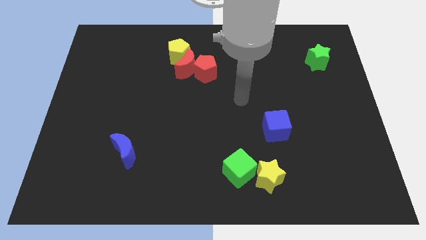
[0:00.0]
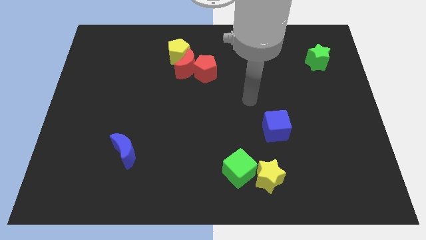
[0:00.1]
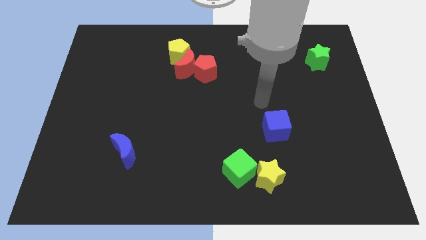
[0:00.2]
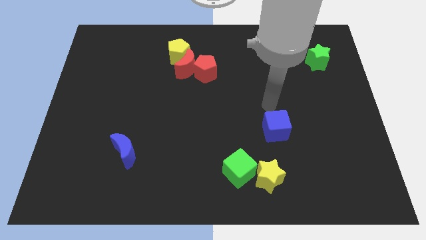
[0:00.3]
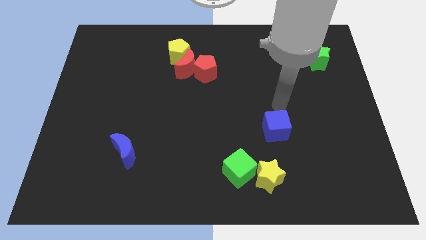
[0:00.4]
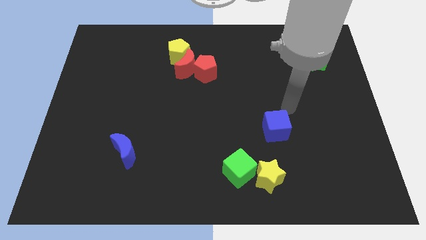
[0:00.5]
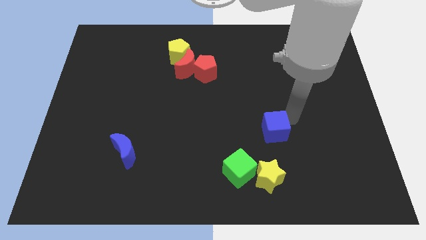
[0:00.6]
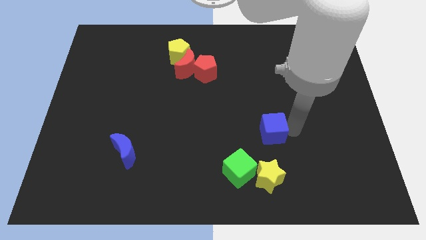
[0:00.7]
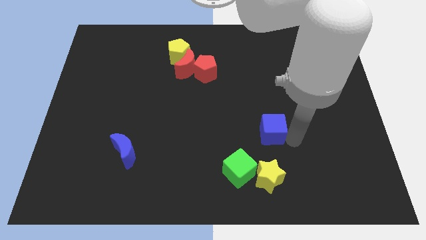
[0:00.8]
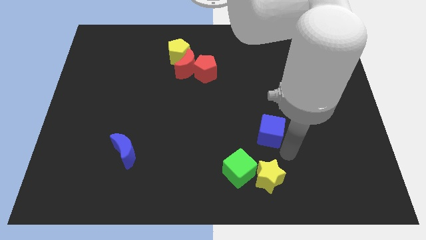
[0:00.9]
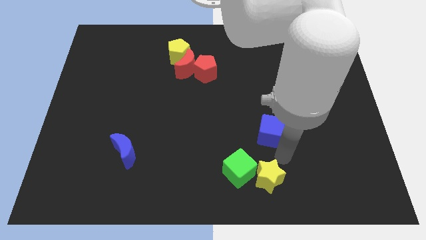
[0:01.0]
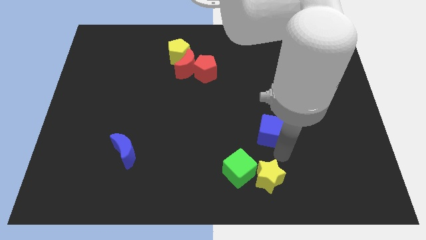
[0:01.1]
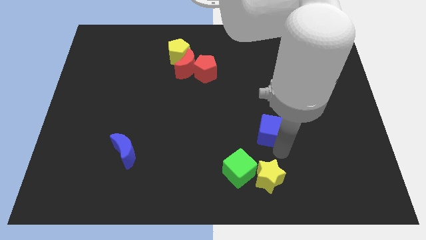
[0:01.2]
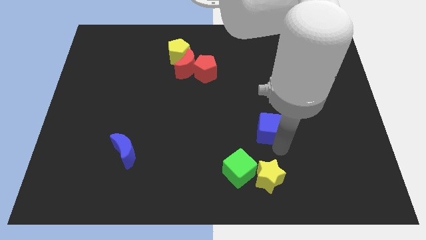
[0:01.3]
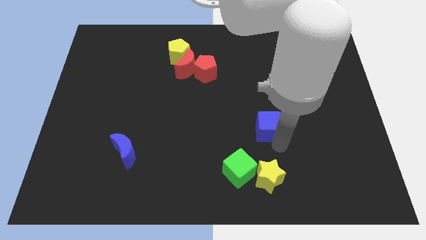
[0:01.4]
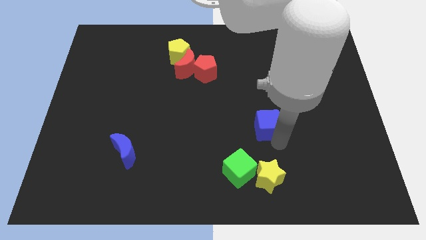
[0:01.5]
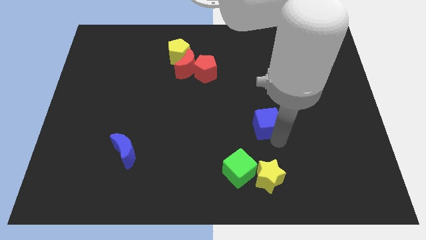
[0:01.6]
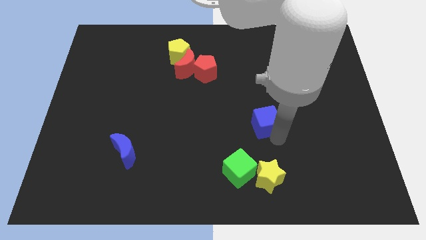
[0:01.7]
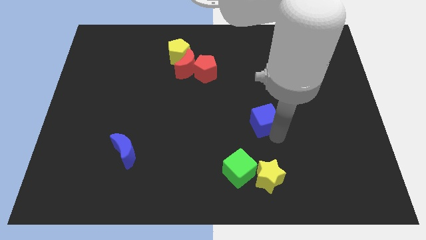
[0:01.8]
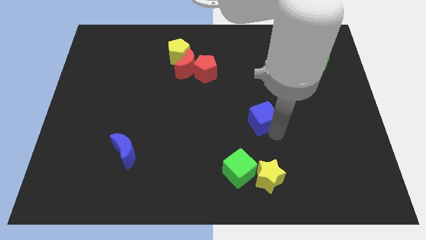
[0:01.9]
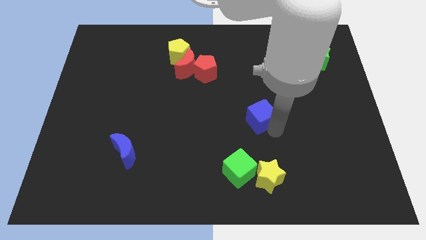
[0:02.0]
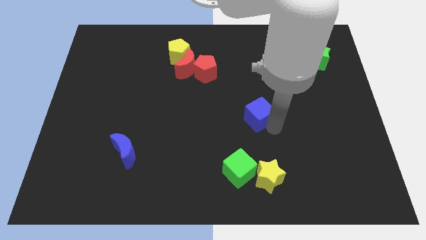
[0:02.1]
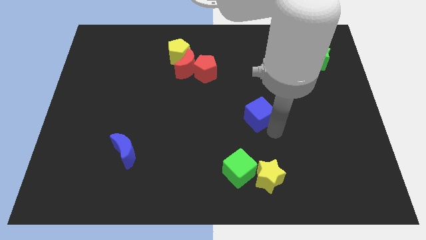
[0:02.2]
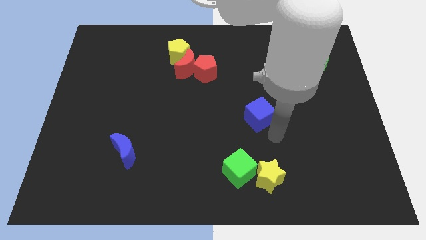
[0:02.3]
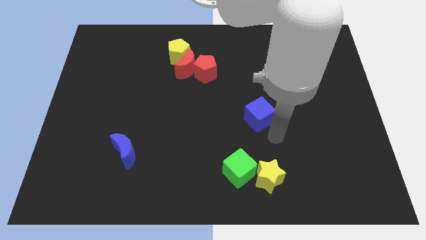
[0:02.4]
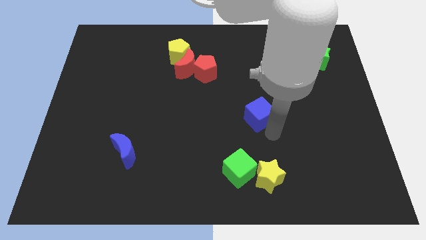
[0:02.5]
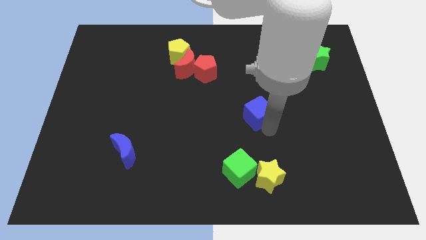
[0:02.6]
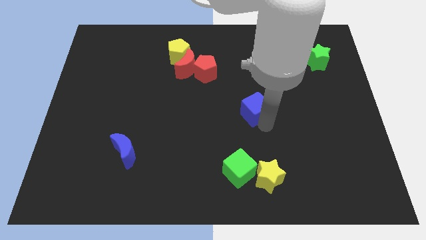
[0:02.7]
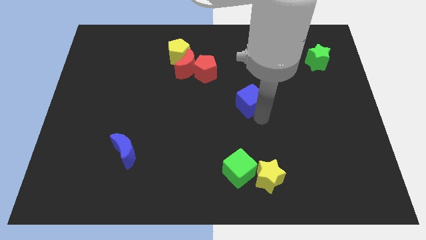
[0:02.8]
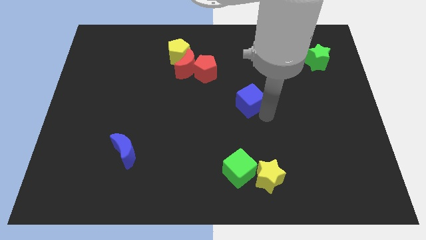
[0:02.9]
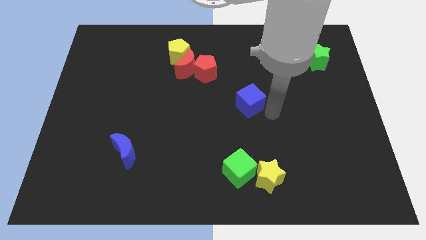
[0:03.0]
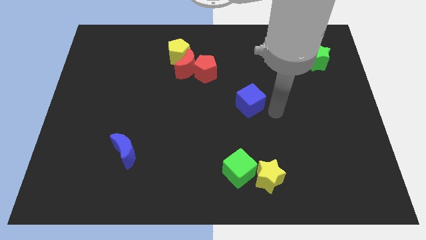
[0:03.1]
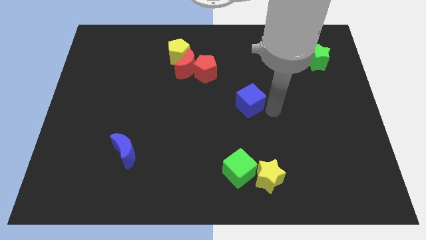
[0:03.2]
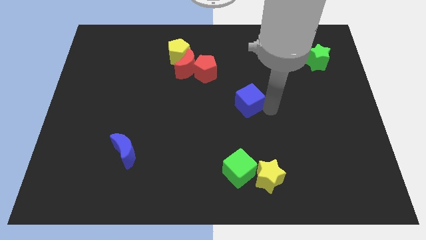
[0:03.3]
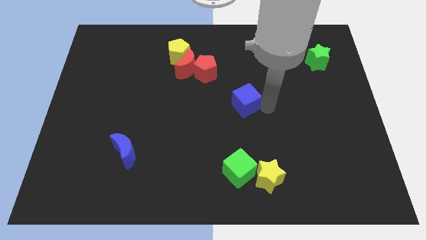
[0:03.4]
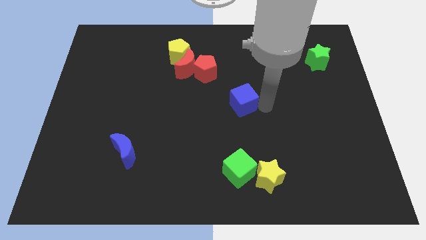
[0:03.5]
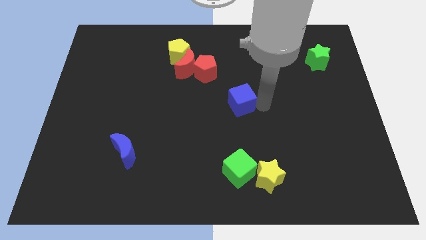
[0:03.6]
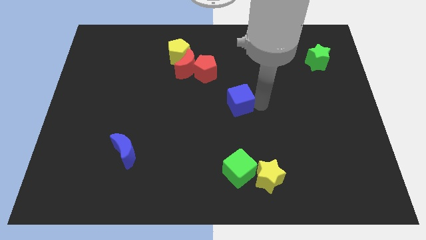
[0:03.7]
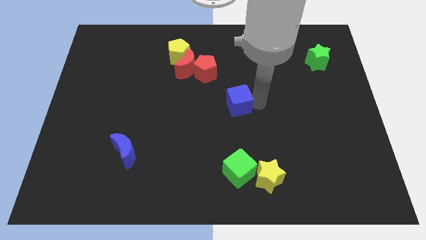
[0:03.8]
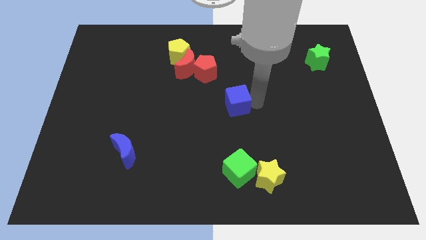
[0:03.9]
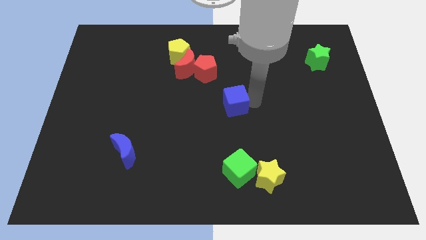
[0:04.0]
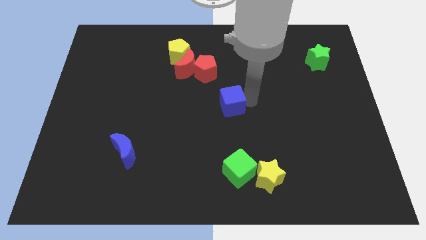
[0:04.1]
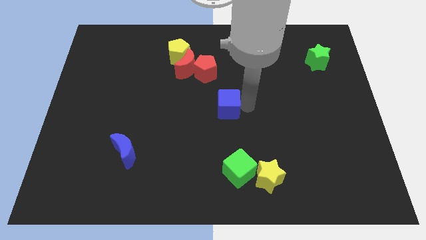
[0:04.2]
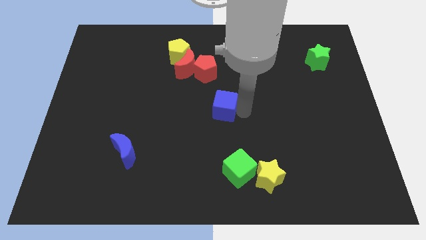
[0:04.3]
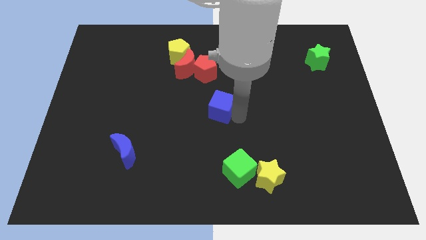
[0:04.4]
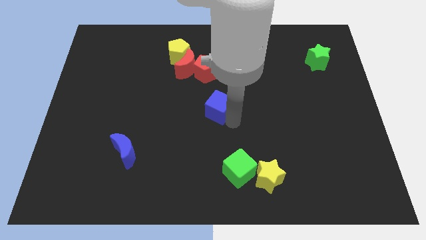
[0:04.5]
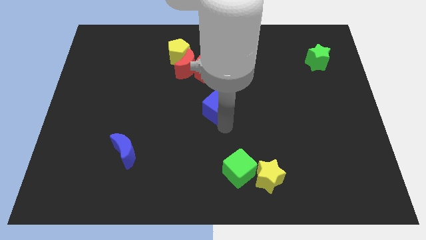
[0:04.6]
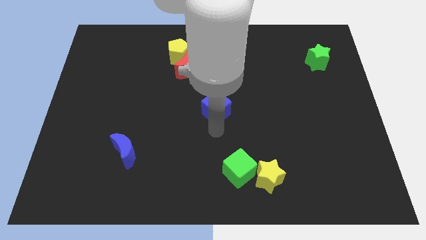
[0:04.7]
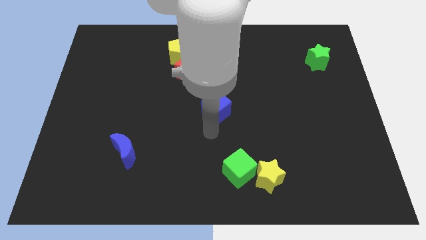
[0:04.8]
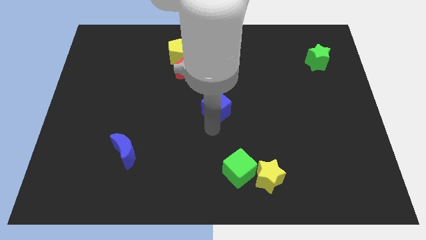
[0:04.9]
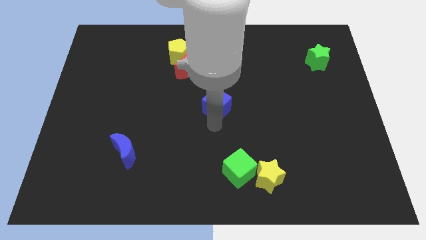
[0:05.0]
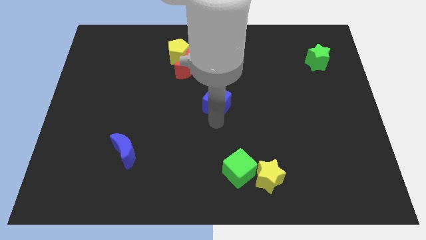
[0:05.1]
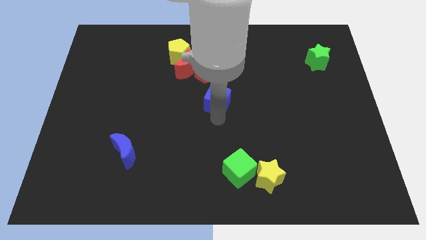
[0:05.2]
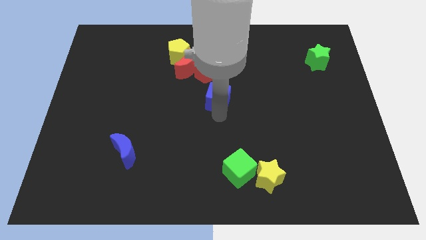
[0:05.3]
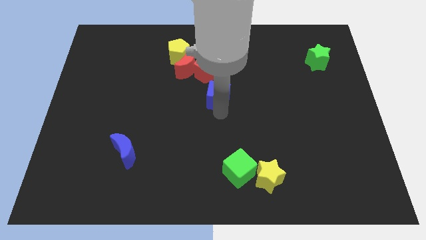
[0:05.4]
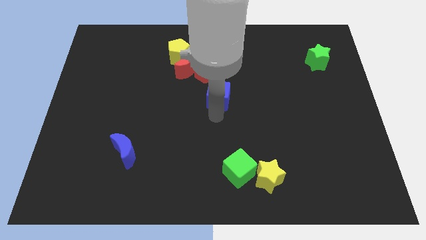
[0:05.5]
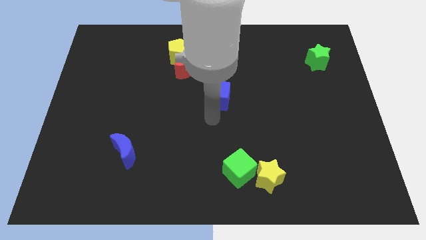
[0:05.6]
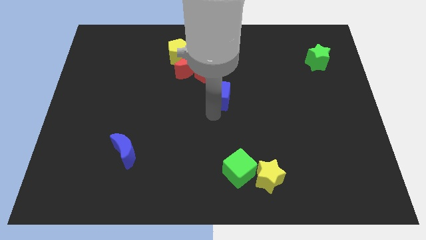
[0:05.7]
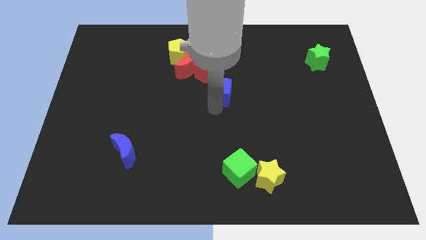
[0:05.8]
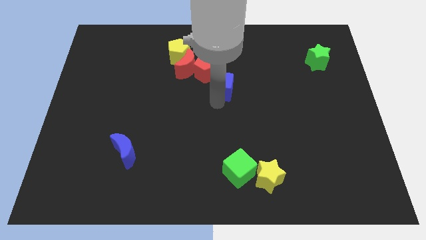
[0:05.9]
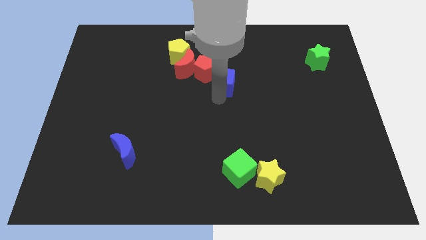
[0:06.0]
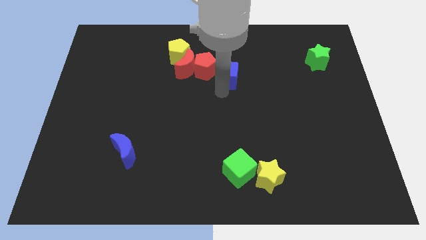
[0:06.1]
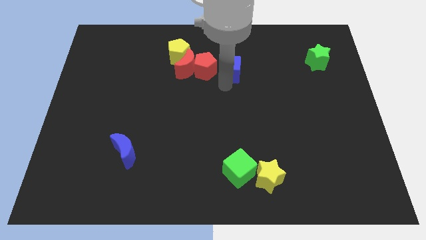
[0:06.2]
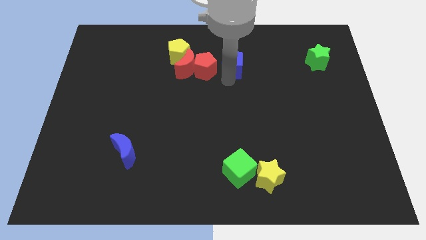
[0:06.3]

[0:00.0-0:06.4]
move the blue cube to the top right side of the red pentagon
